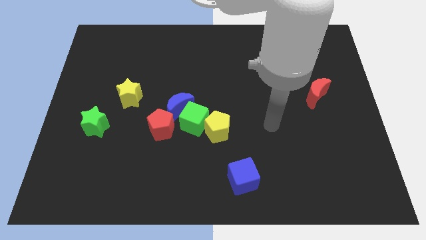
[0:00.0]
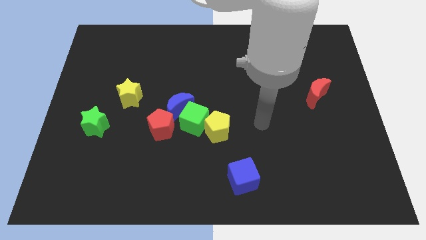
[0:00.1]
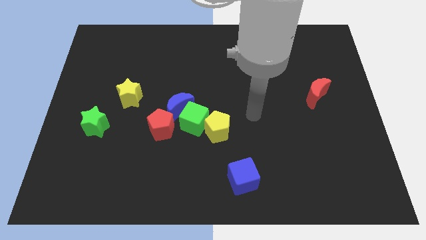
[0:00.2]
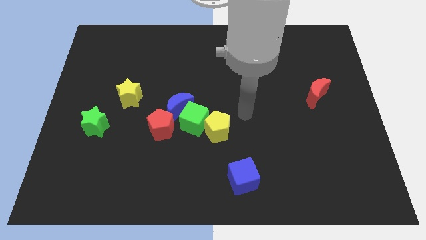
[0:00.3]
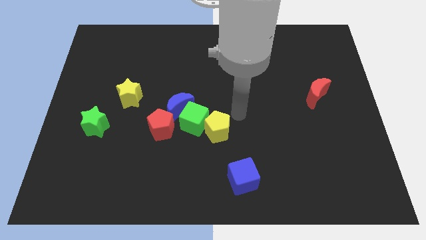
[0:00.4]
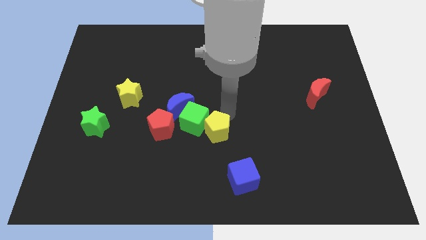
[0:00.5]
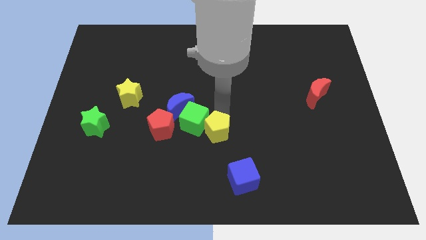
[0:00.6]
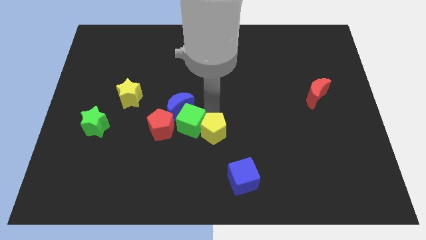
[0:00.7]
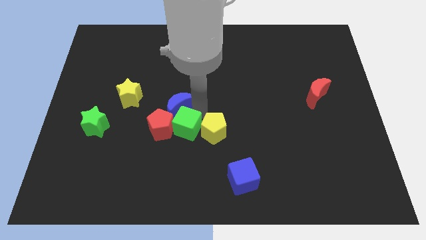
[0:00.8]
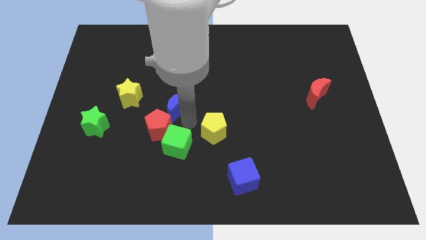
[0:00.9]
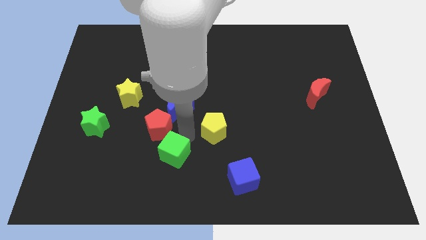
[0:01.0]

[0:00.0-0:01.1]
pull the yellow pentagon apart from the green cube

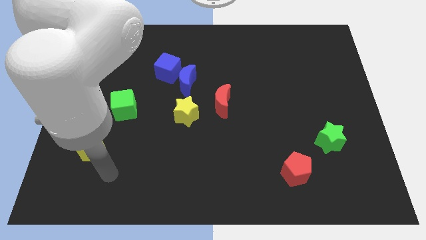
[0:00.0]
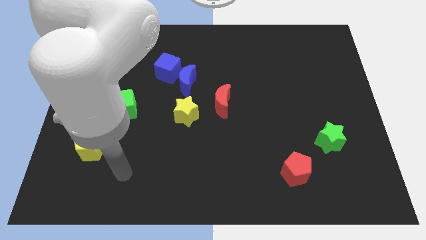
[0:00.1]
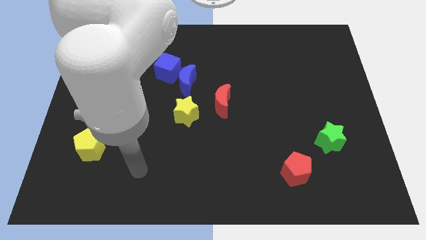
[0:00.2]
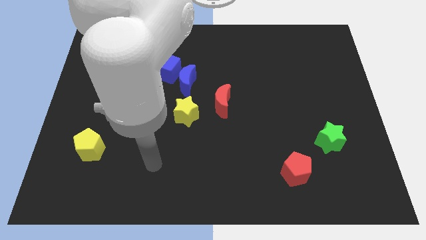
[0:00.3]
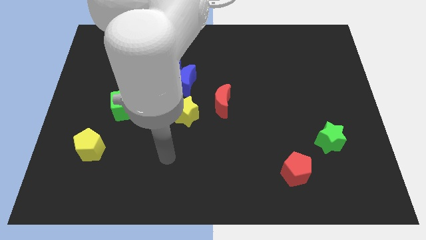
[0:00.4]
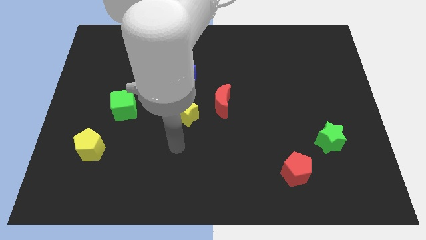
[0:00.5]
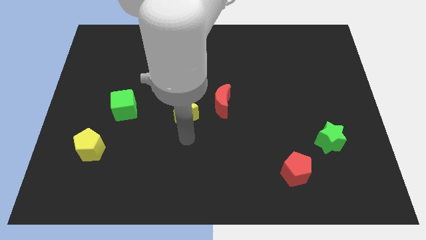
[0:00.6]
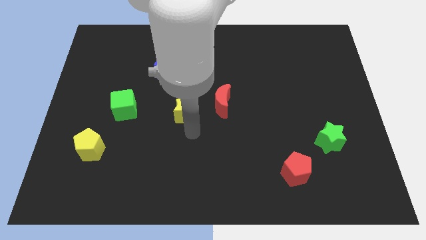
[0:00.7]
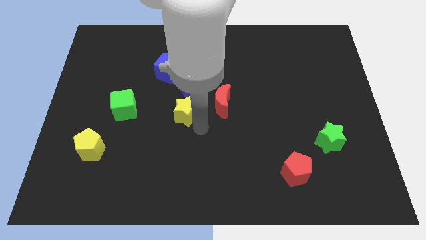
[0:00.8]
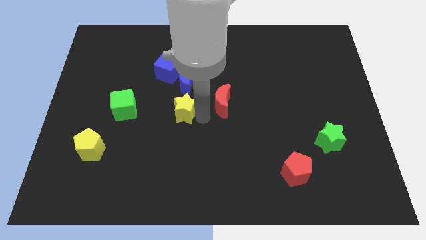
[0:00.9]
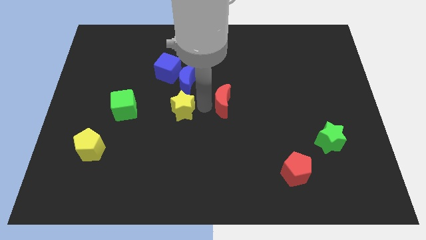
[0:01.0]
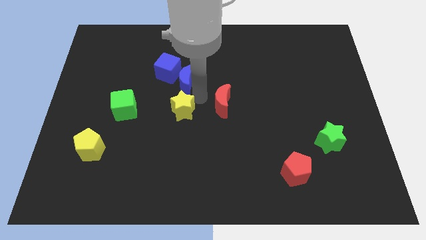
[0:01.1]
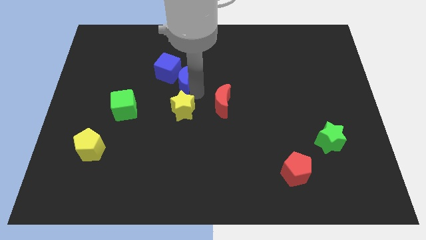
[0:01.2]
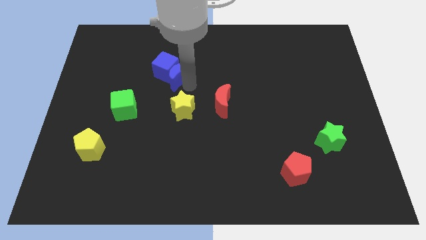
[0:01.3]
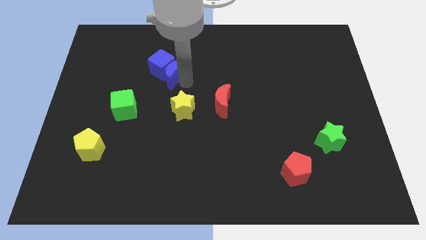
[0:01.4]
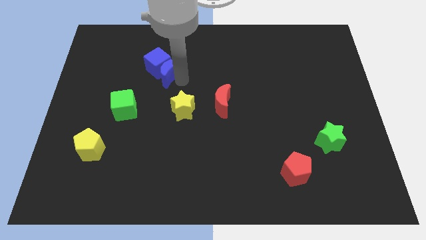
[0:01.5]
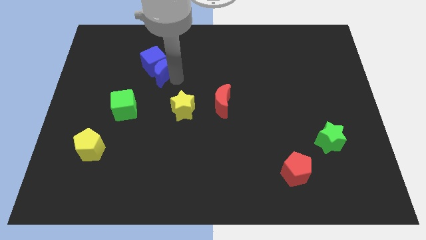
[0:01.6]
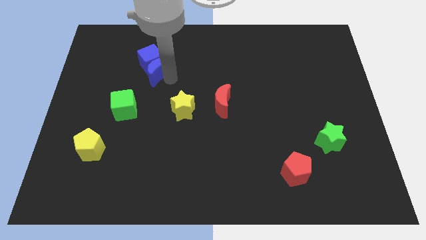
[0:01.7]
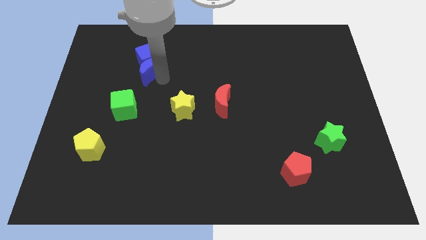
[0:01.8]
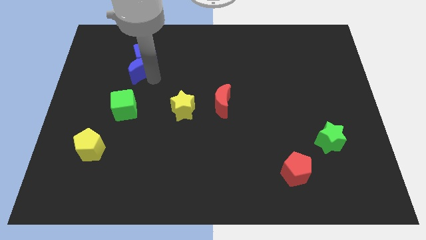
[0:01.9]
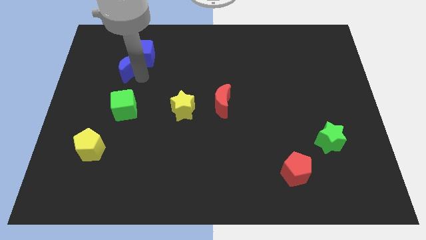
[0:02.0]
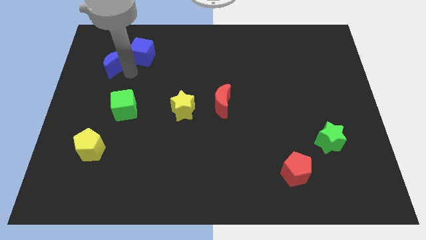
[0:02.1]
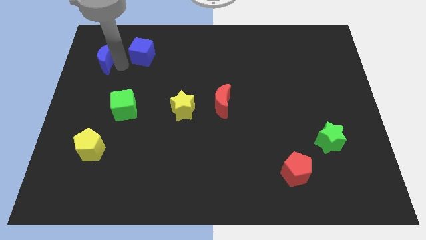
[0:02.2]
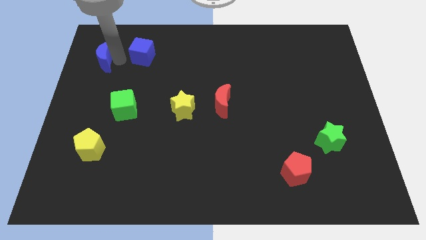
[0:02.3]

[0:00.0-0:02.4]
pull the blue cube apart from the blue moon

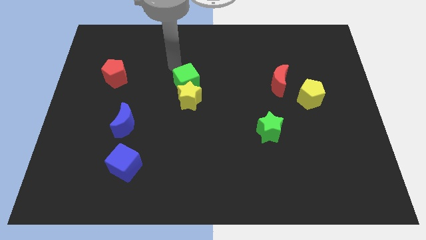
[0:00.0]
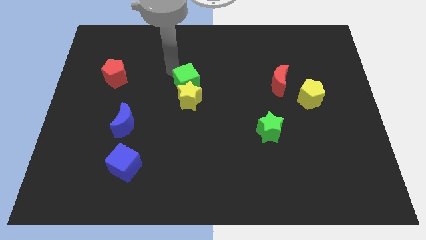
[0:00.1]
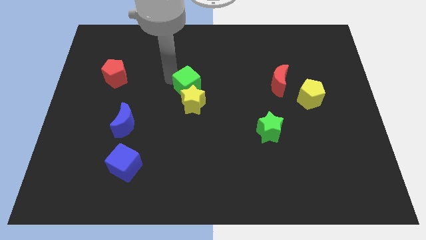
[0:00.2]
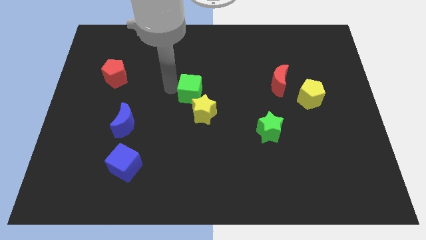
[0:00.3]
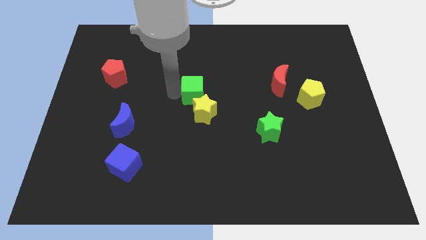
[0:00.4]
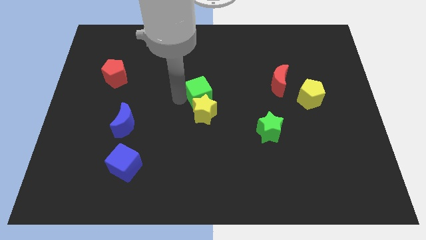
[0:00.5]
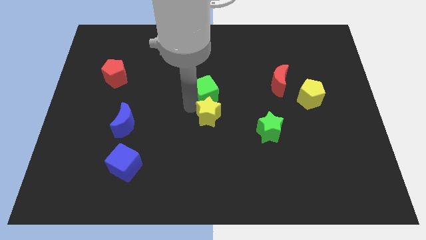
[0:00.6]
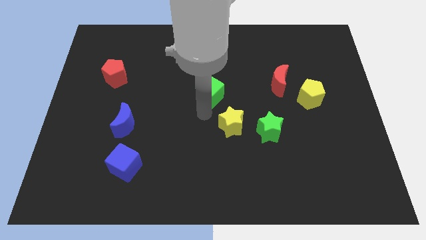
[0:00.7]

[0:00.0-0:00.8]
move the green cube away from the yellow star

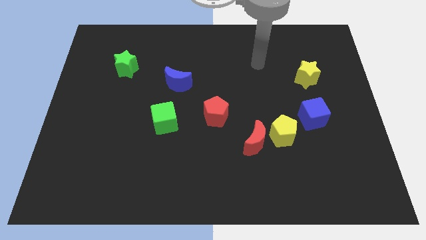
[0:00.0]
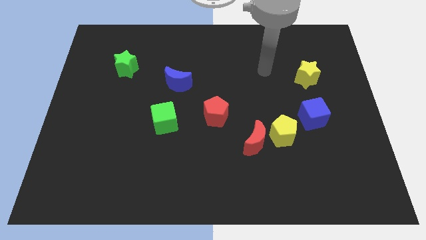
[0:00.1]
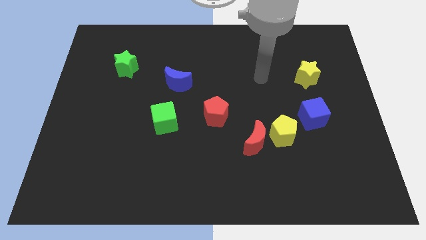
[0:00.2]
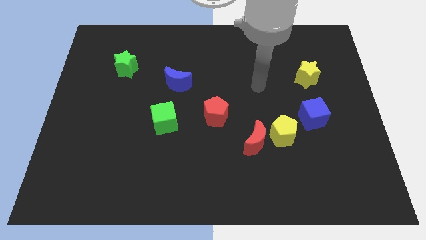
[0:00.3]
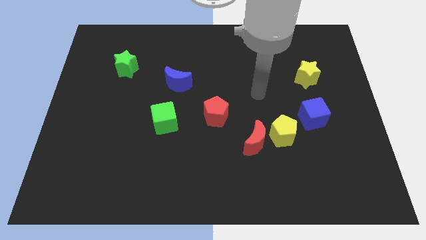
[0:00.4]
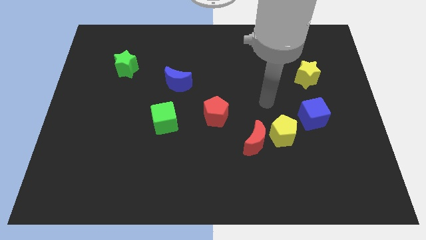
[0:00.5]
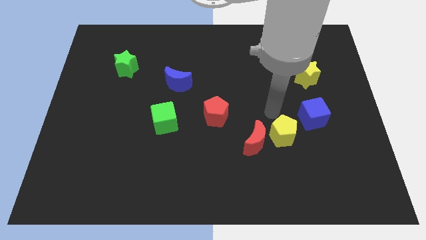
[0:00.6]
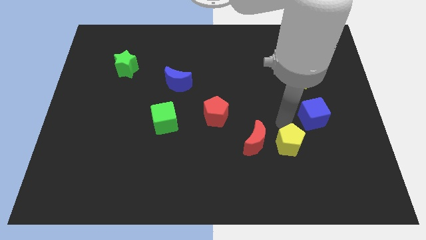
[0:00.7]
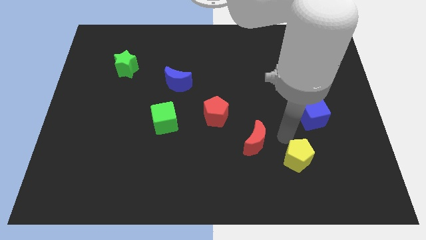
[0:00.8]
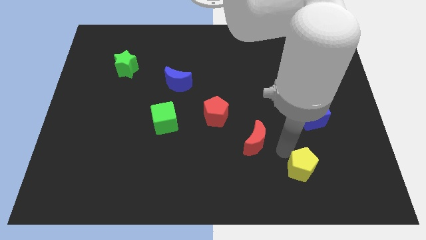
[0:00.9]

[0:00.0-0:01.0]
move the red moon away from the yellow pentagon

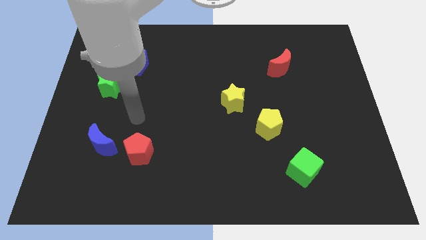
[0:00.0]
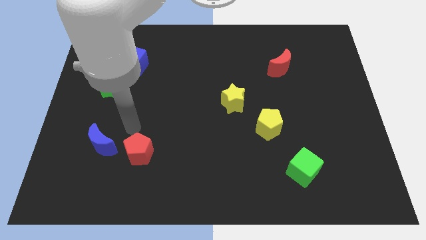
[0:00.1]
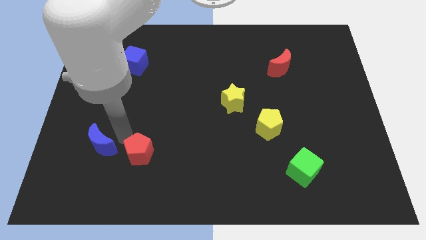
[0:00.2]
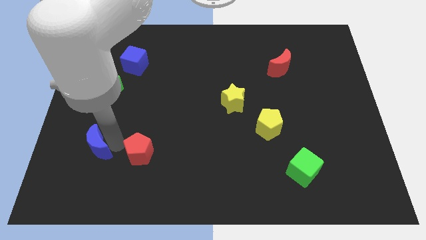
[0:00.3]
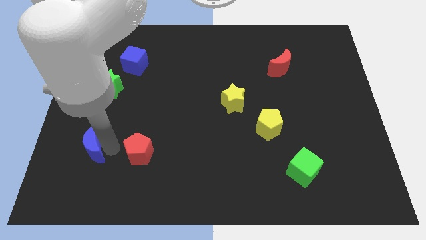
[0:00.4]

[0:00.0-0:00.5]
pull the red pentagon apart from the blue moon

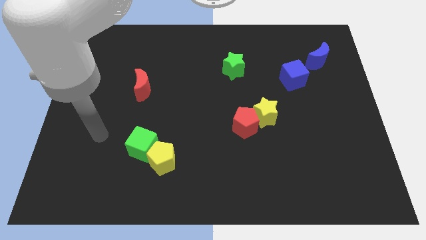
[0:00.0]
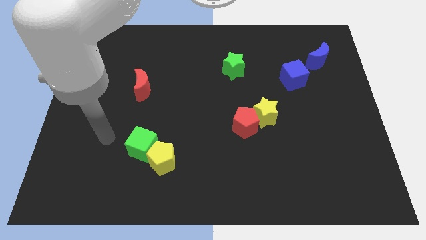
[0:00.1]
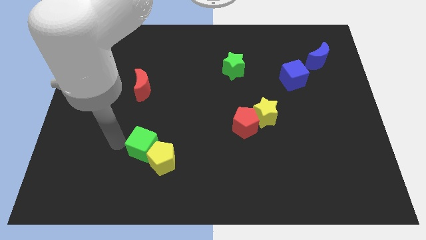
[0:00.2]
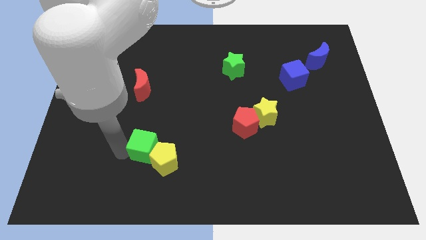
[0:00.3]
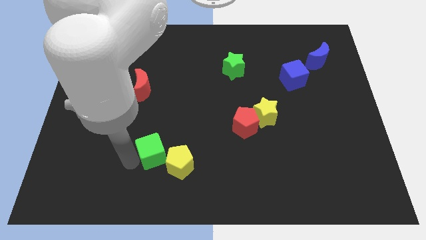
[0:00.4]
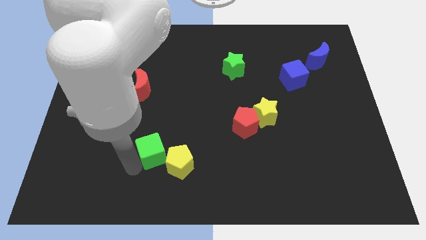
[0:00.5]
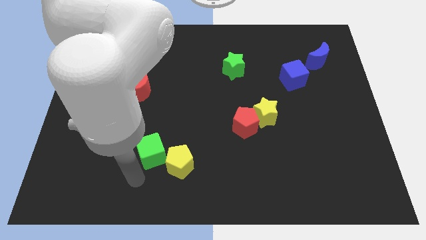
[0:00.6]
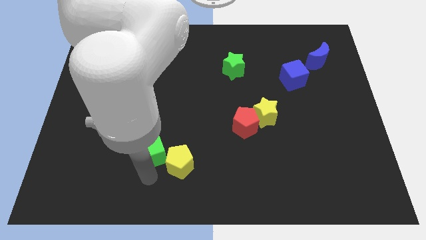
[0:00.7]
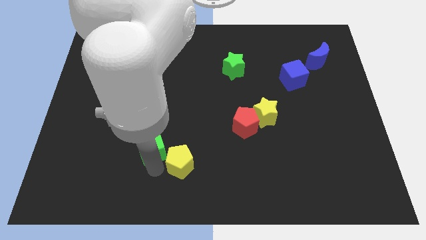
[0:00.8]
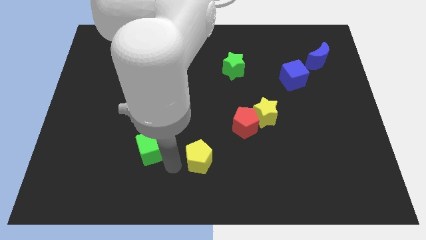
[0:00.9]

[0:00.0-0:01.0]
separate the green cube from the yellow pentagon

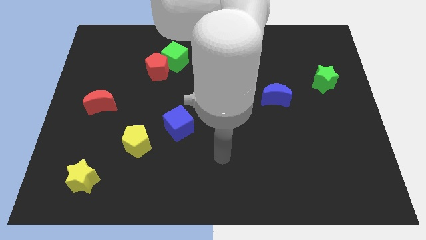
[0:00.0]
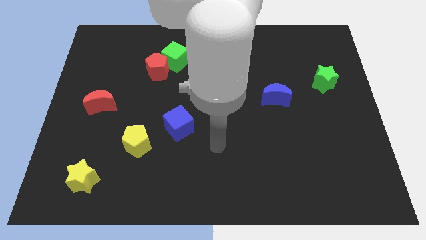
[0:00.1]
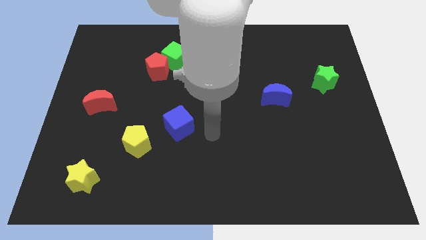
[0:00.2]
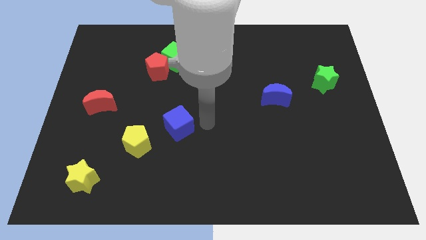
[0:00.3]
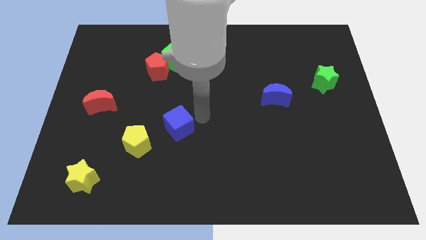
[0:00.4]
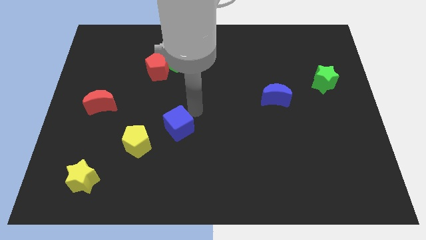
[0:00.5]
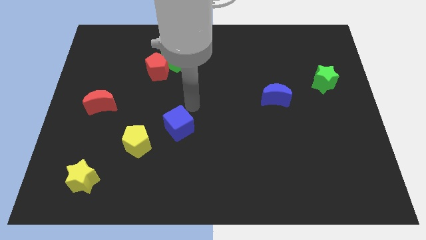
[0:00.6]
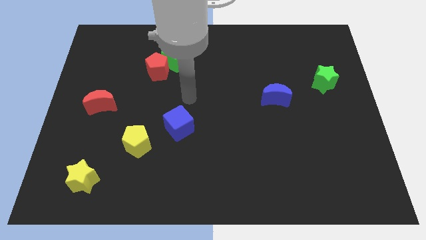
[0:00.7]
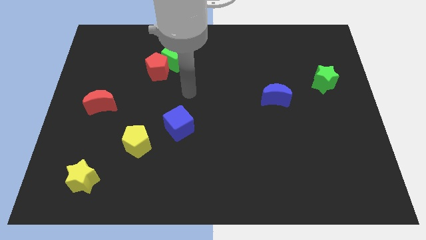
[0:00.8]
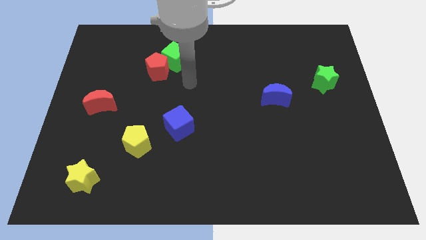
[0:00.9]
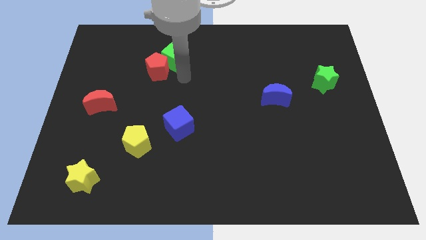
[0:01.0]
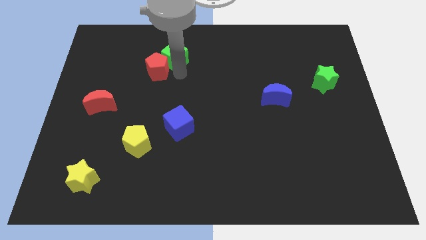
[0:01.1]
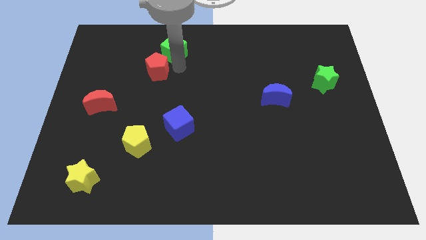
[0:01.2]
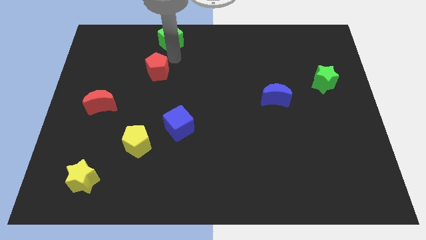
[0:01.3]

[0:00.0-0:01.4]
move the red pentagon away from the green cube

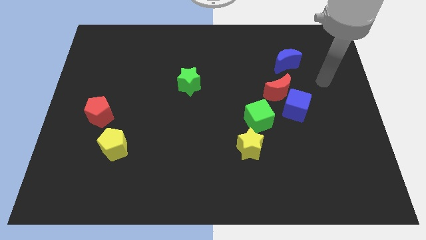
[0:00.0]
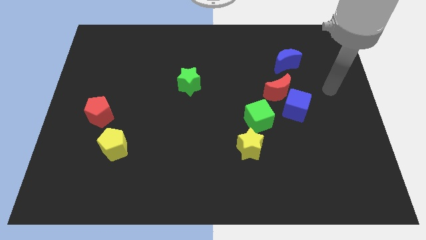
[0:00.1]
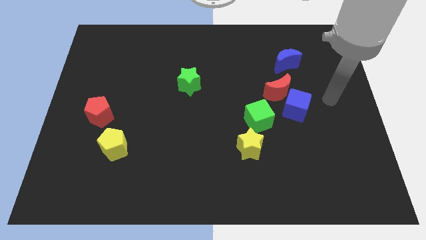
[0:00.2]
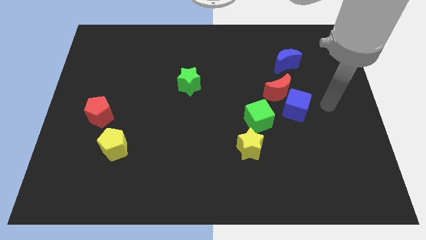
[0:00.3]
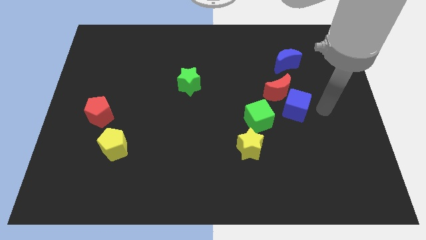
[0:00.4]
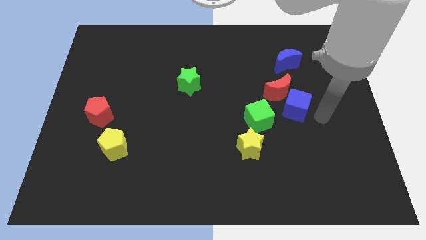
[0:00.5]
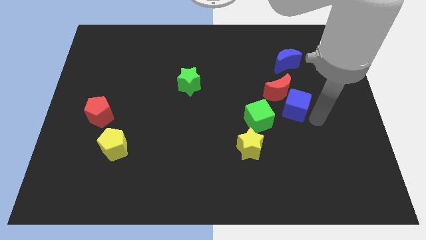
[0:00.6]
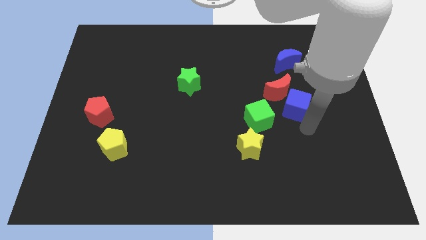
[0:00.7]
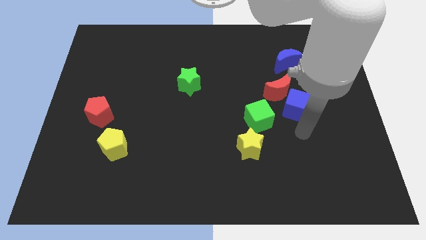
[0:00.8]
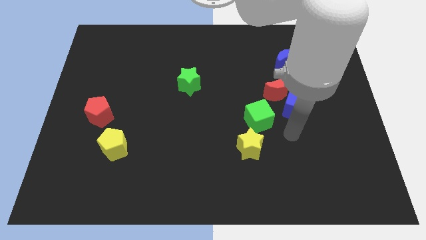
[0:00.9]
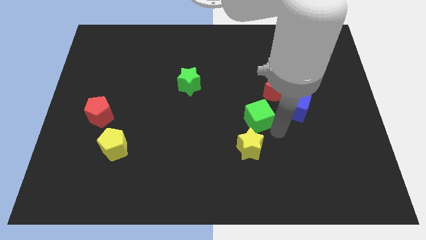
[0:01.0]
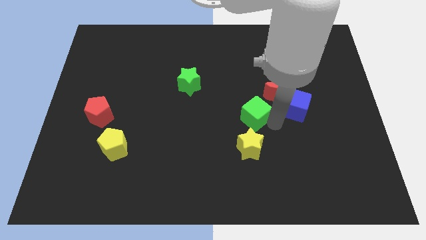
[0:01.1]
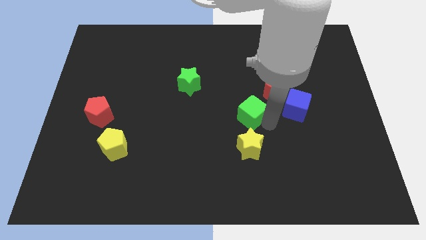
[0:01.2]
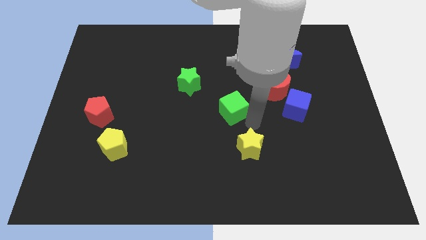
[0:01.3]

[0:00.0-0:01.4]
move the yellow star away from the green cube
